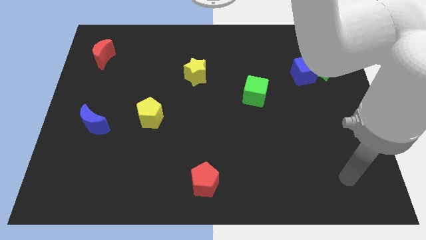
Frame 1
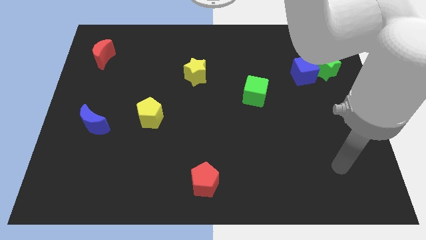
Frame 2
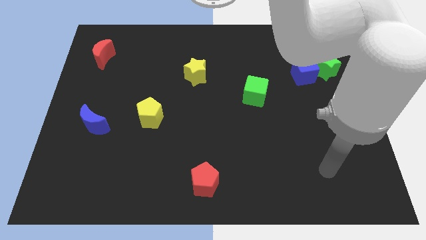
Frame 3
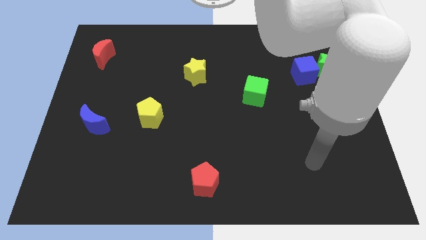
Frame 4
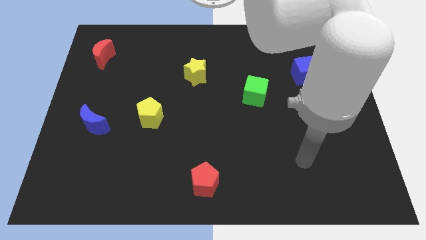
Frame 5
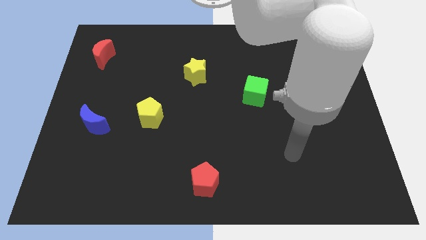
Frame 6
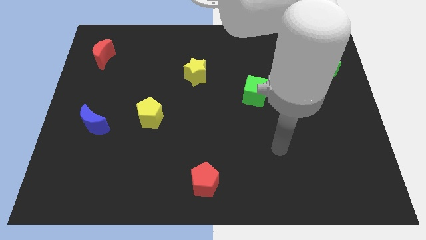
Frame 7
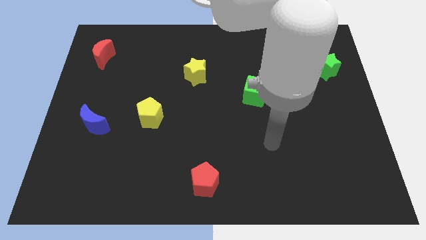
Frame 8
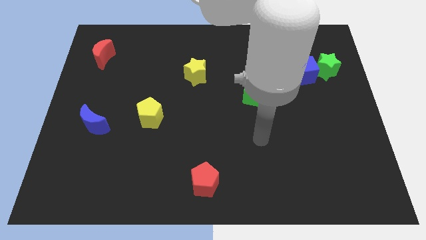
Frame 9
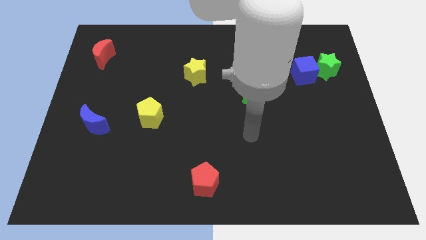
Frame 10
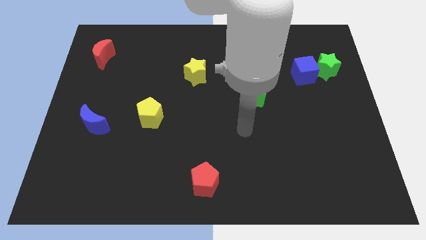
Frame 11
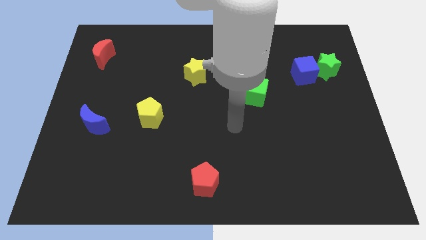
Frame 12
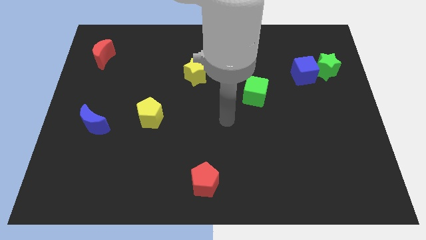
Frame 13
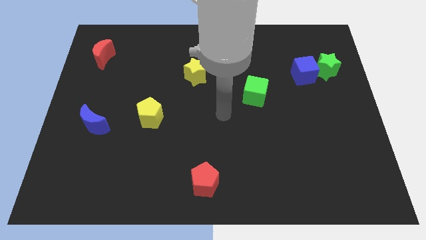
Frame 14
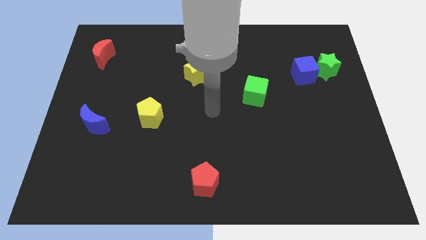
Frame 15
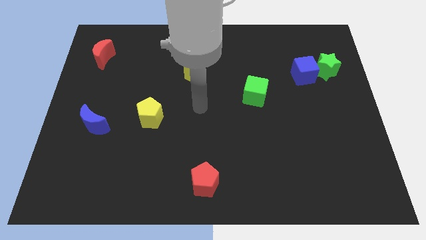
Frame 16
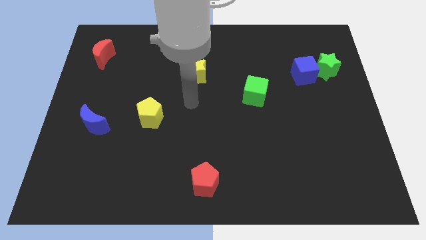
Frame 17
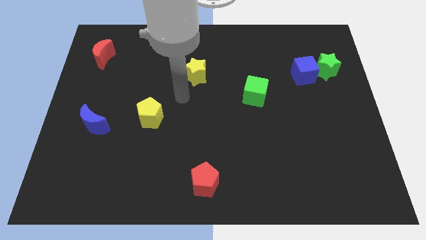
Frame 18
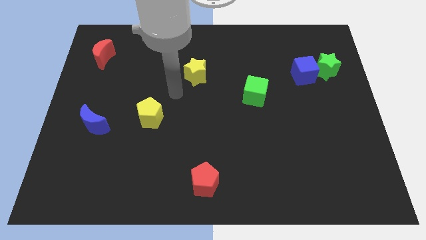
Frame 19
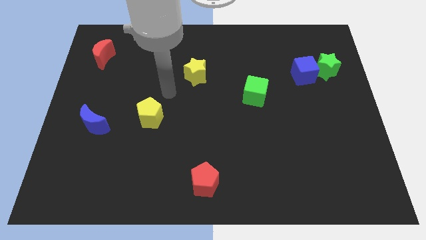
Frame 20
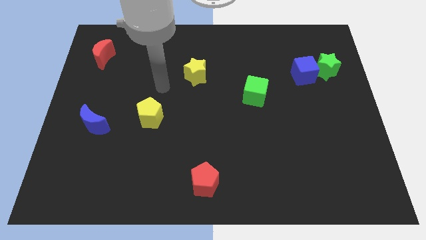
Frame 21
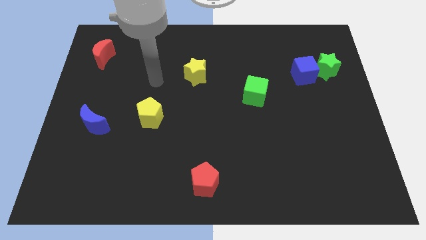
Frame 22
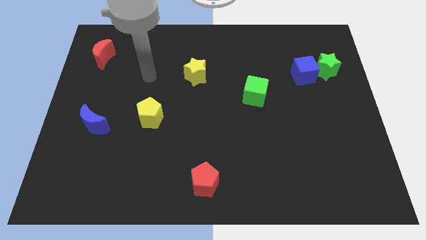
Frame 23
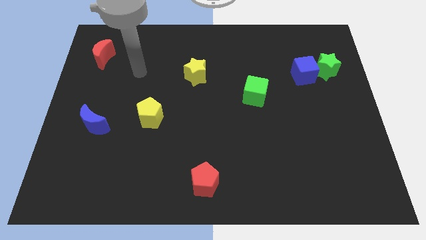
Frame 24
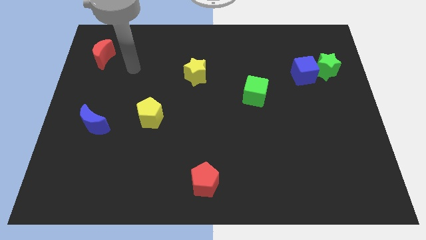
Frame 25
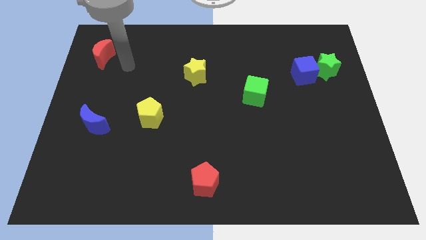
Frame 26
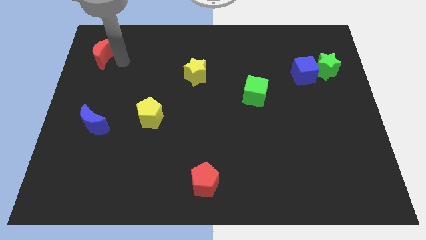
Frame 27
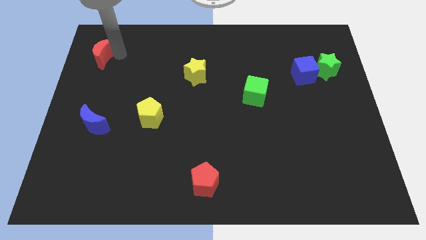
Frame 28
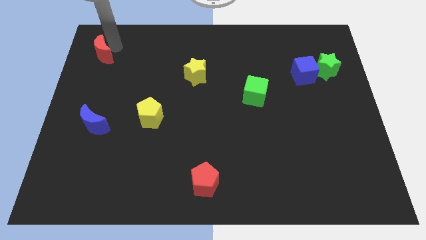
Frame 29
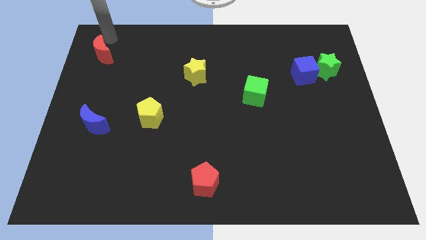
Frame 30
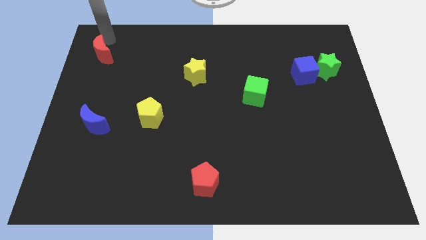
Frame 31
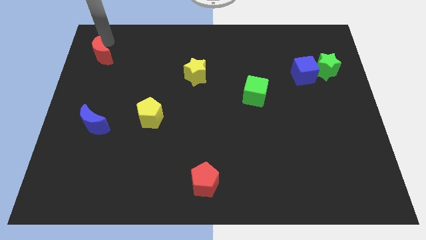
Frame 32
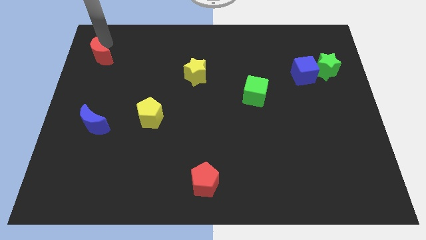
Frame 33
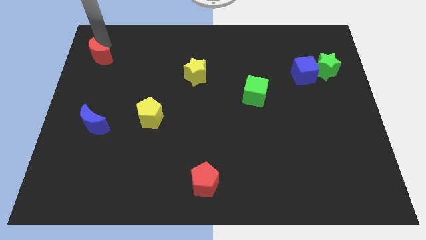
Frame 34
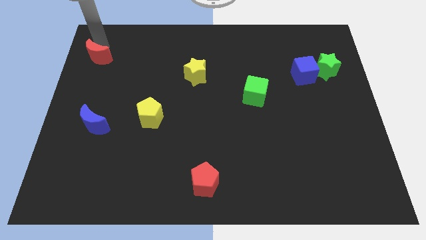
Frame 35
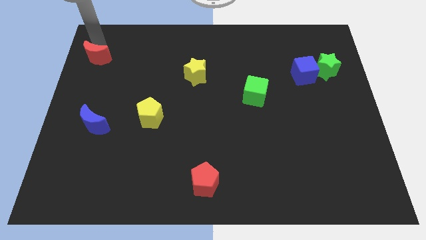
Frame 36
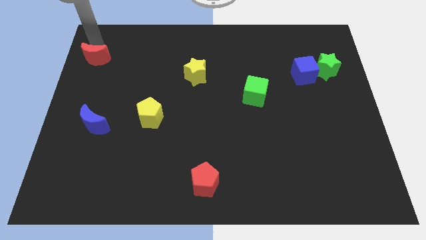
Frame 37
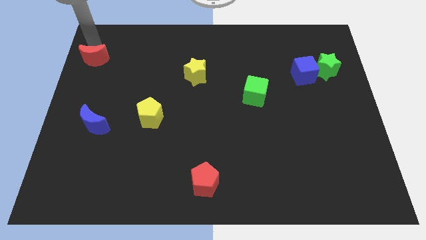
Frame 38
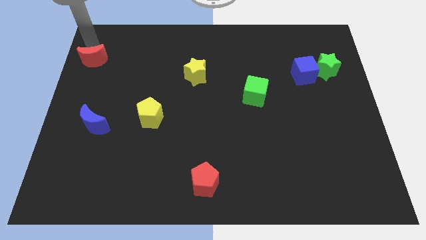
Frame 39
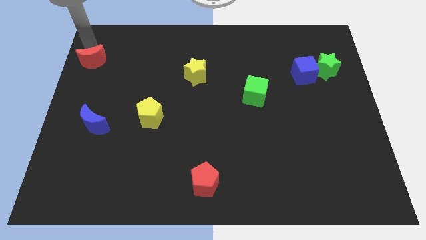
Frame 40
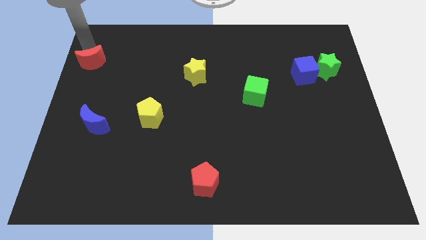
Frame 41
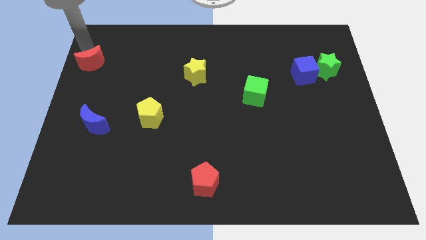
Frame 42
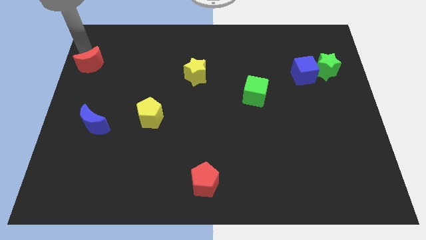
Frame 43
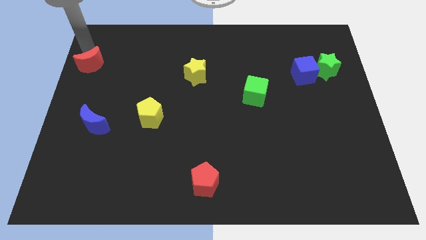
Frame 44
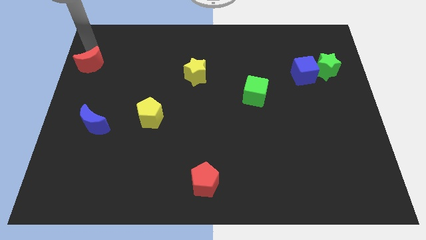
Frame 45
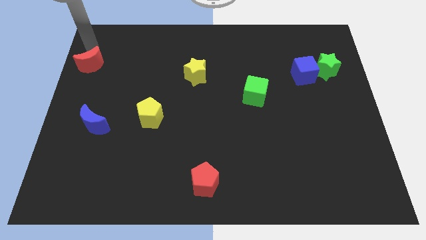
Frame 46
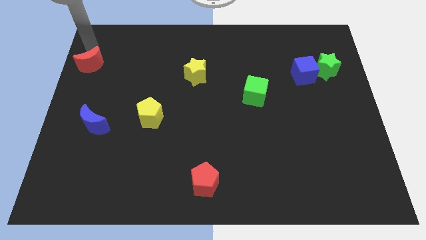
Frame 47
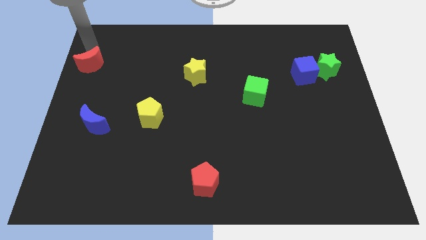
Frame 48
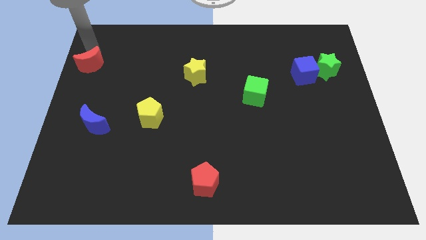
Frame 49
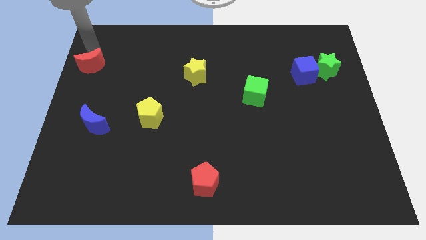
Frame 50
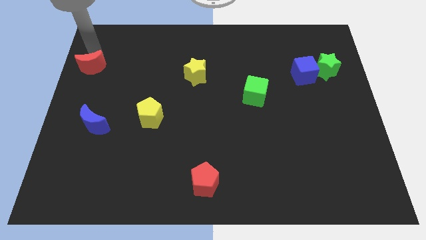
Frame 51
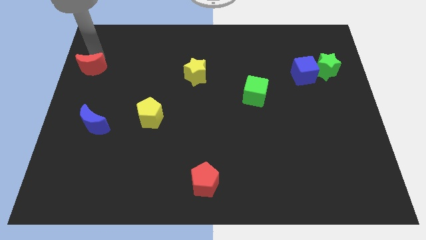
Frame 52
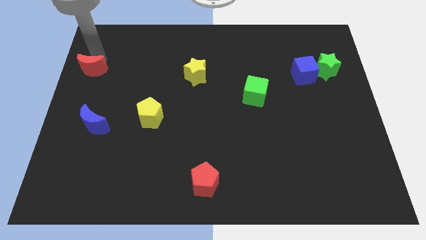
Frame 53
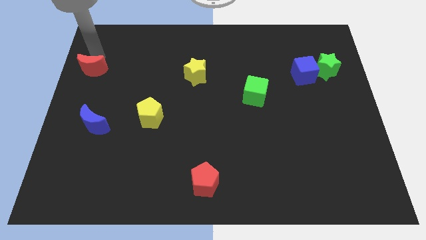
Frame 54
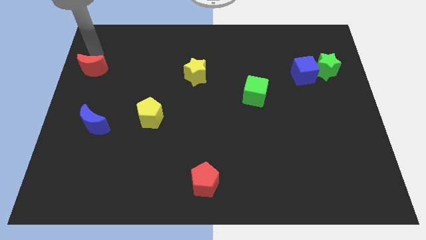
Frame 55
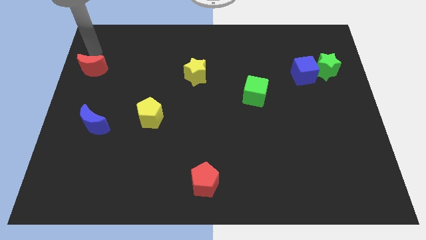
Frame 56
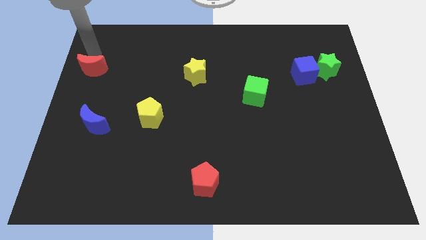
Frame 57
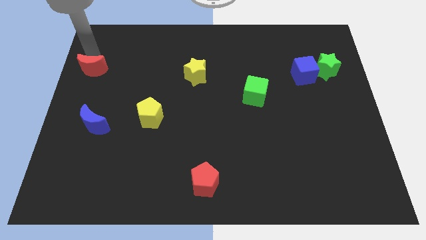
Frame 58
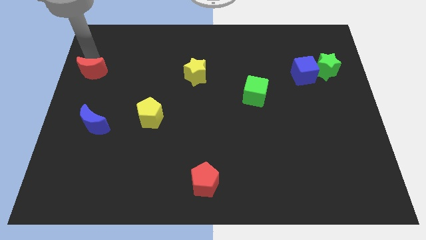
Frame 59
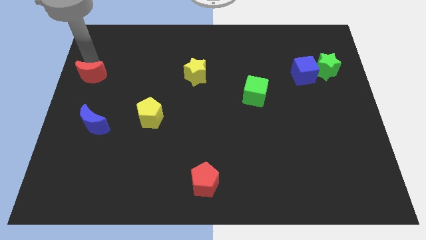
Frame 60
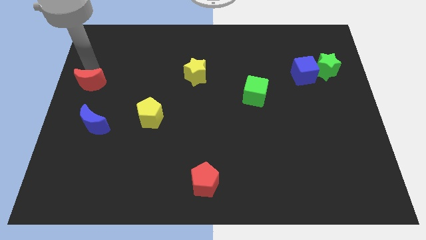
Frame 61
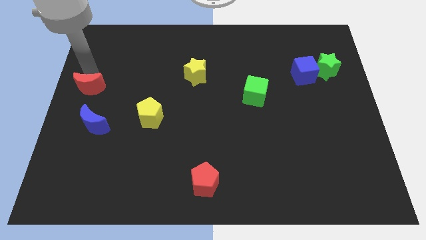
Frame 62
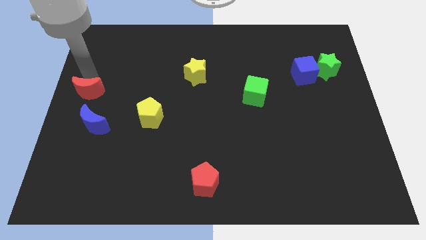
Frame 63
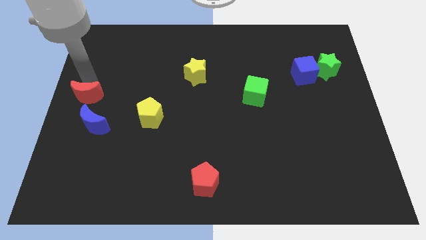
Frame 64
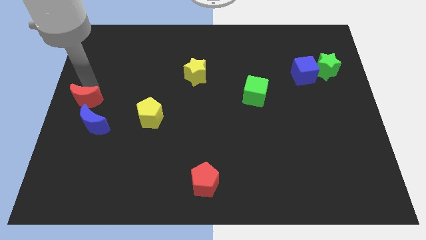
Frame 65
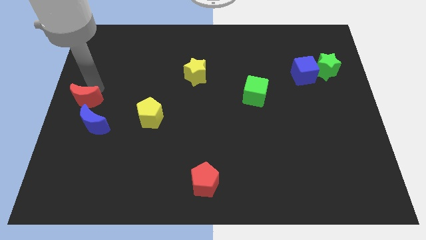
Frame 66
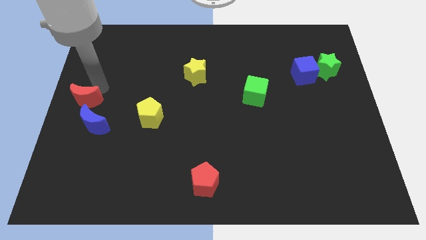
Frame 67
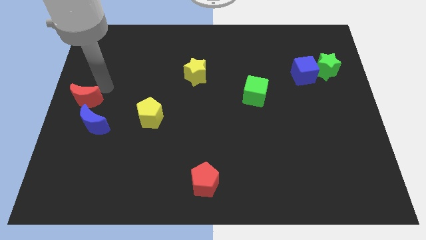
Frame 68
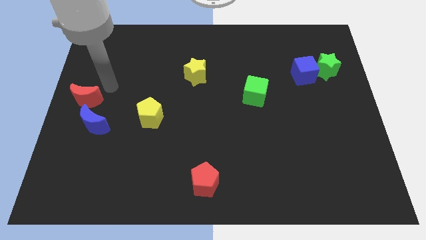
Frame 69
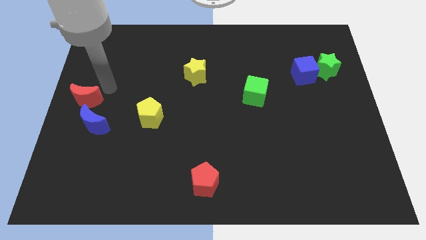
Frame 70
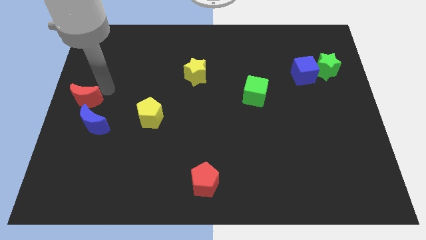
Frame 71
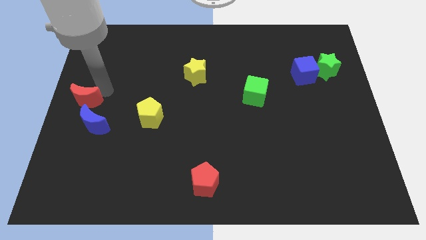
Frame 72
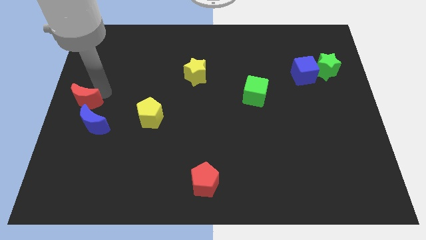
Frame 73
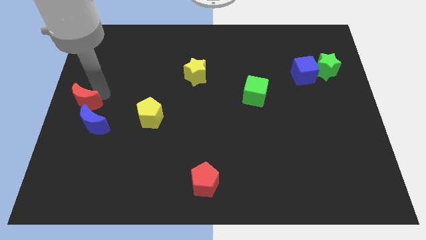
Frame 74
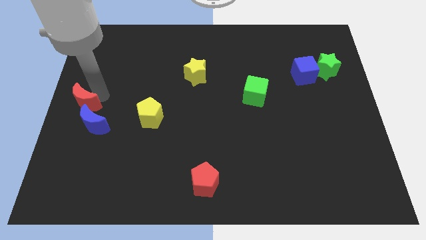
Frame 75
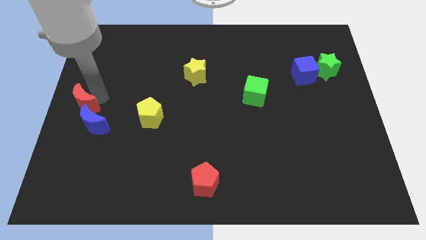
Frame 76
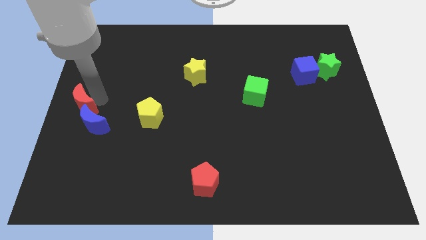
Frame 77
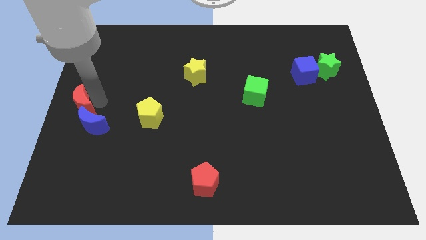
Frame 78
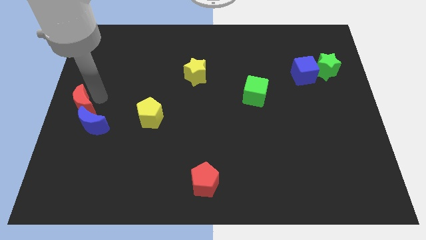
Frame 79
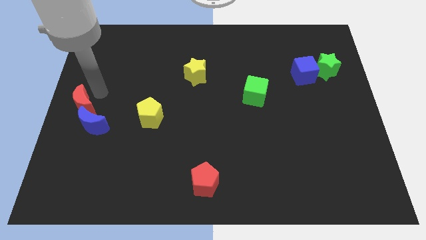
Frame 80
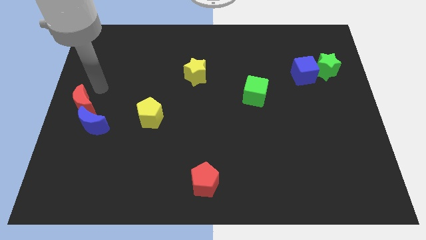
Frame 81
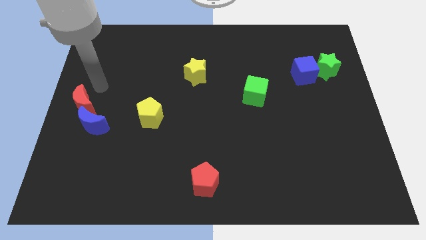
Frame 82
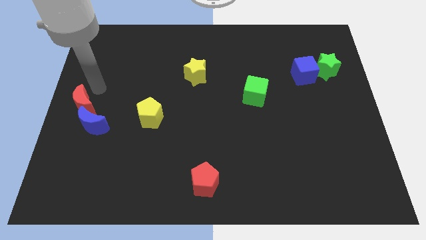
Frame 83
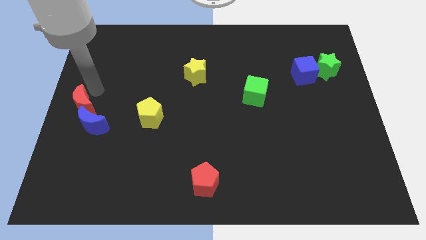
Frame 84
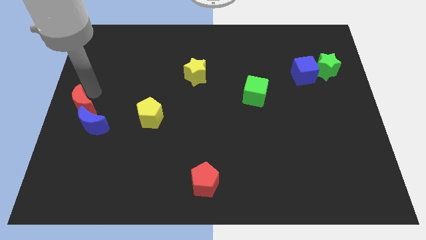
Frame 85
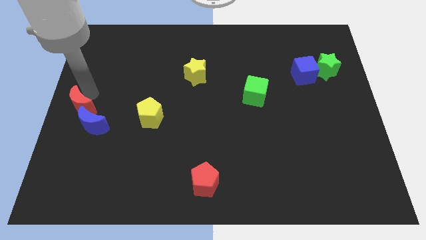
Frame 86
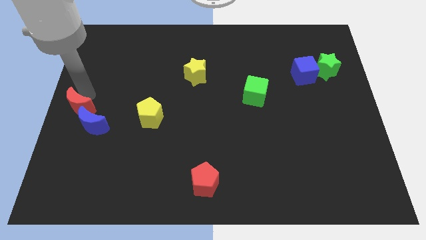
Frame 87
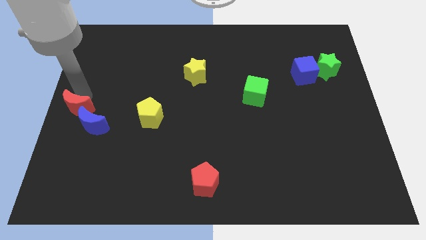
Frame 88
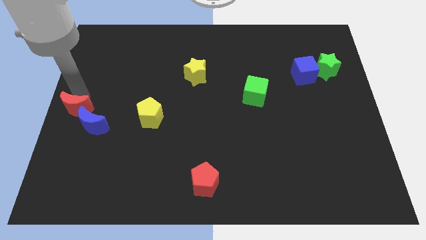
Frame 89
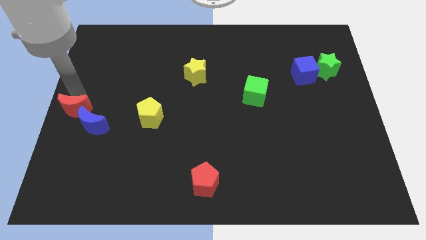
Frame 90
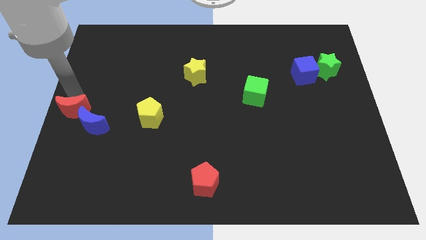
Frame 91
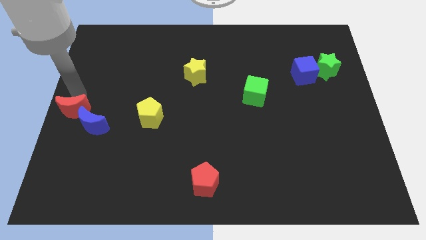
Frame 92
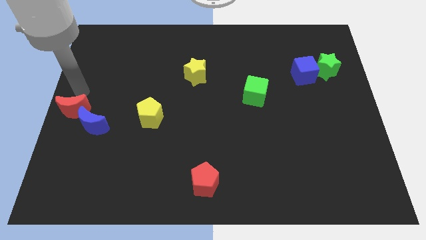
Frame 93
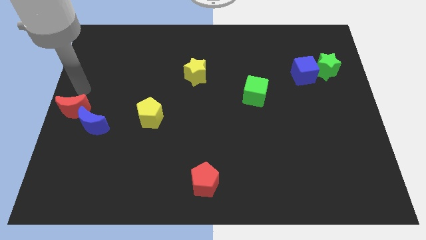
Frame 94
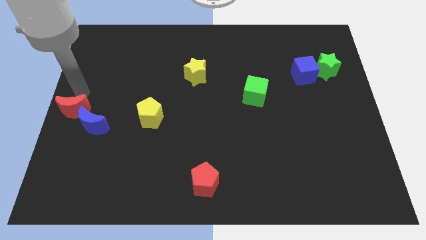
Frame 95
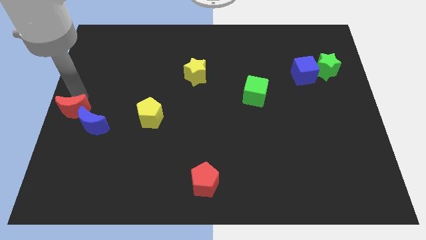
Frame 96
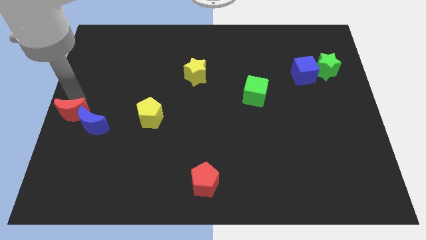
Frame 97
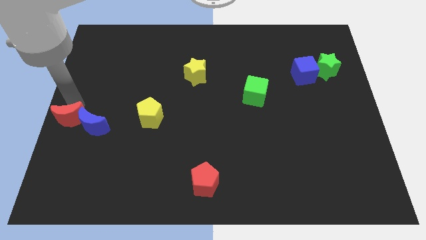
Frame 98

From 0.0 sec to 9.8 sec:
slide the red moon downwards
